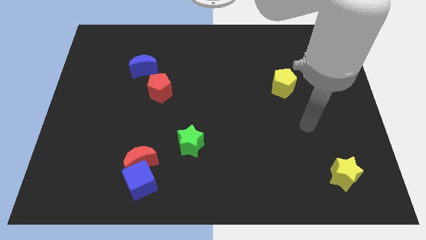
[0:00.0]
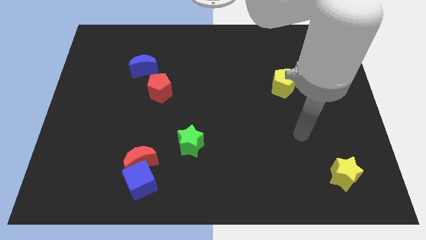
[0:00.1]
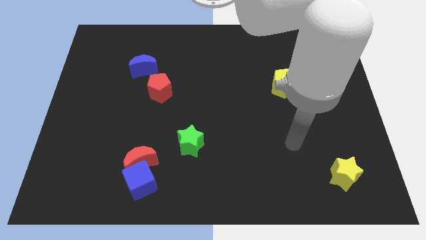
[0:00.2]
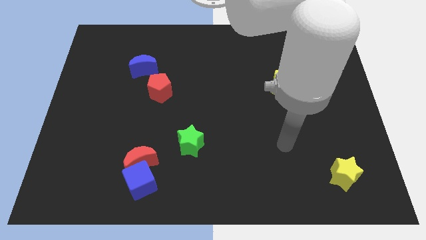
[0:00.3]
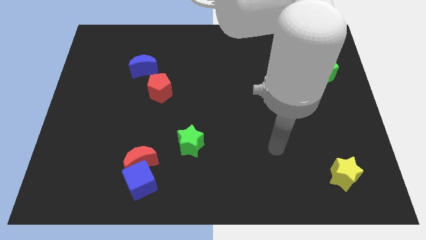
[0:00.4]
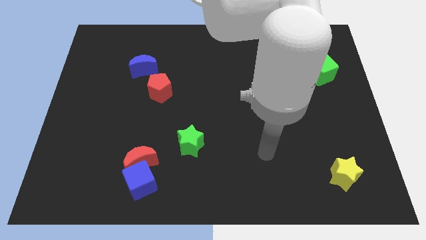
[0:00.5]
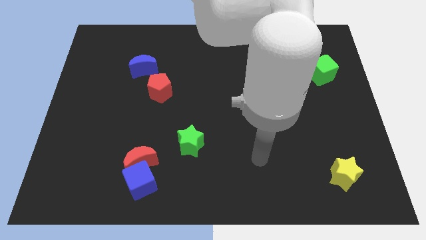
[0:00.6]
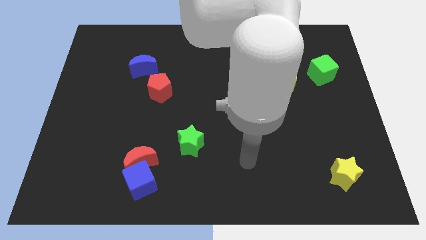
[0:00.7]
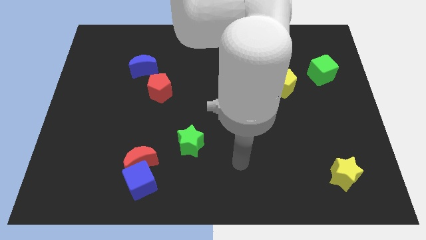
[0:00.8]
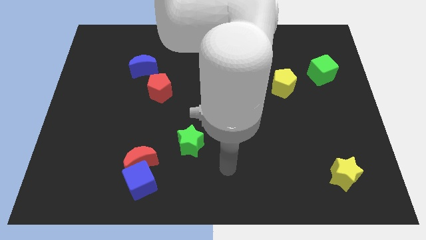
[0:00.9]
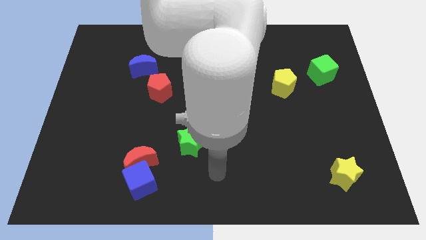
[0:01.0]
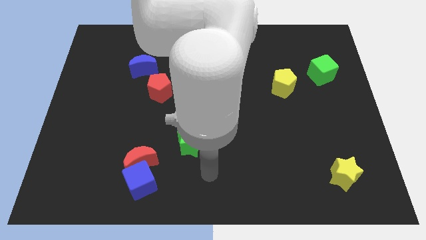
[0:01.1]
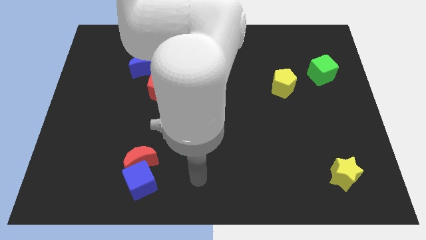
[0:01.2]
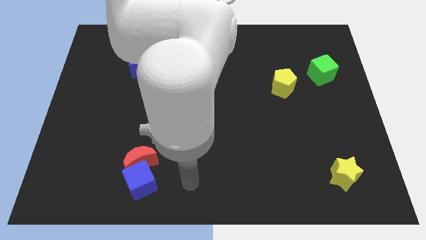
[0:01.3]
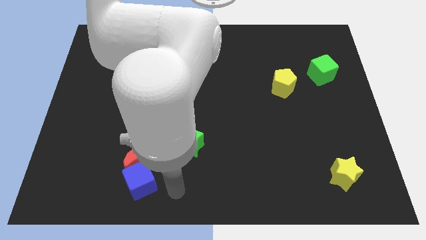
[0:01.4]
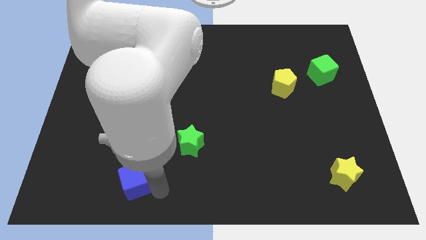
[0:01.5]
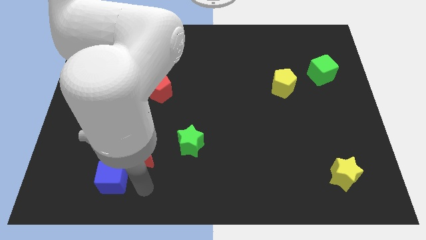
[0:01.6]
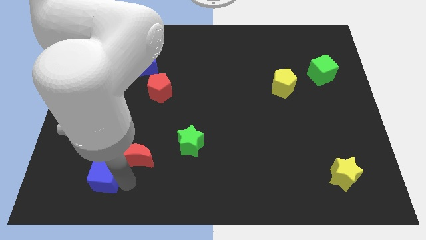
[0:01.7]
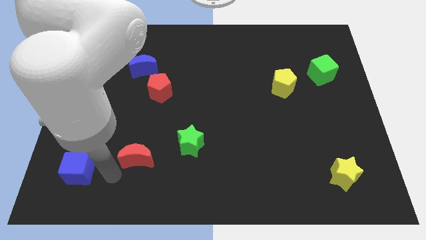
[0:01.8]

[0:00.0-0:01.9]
separate the red moon from the blue cube

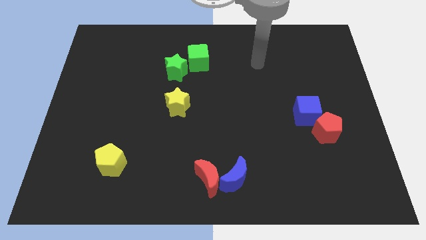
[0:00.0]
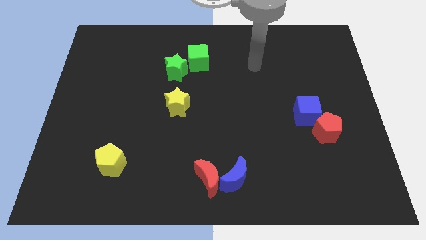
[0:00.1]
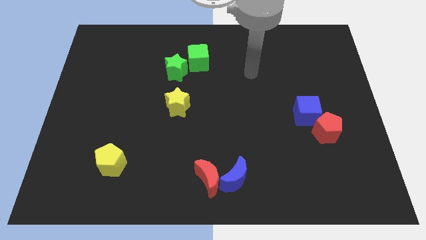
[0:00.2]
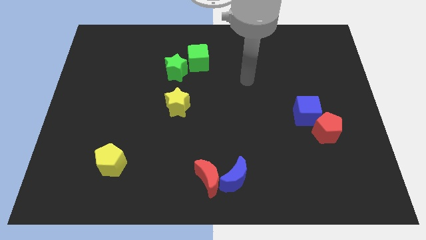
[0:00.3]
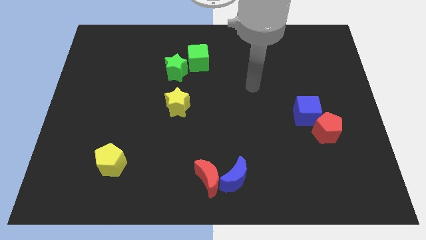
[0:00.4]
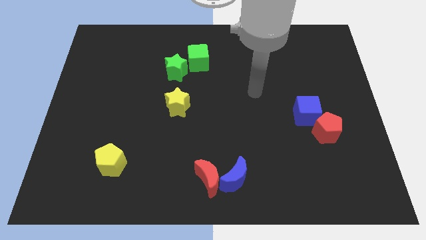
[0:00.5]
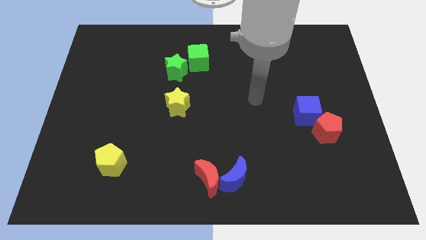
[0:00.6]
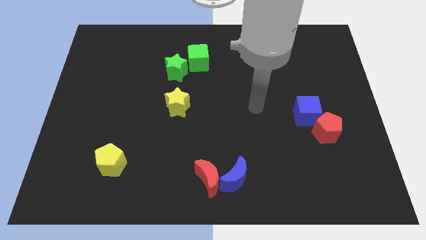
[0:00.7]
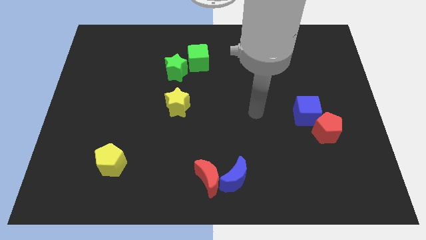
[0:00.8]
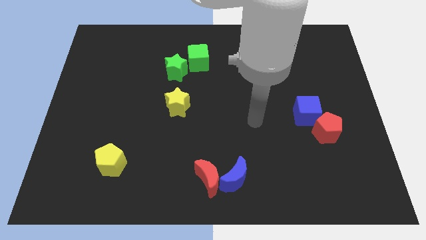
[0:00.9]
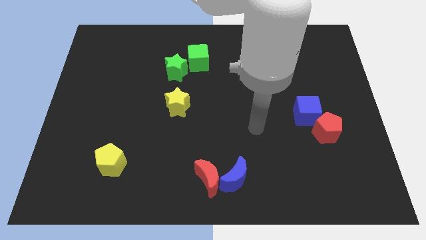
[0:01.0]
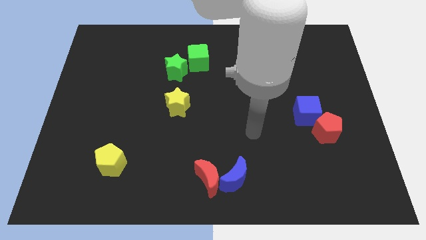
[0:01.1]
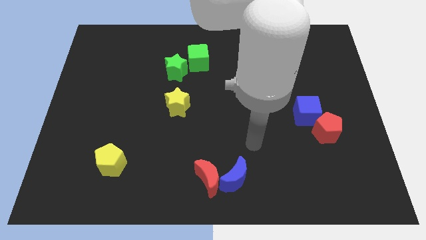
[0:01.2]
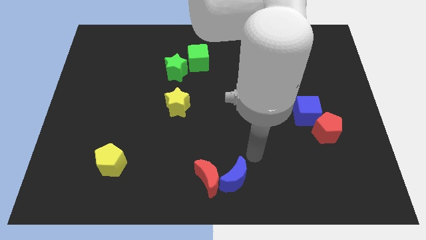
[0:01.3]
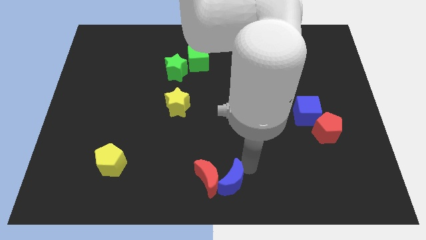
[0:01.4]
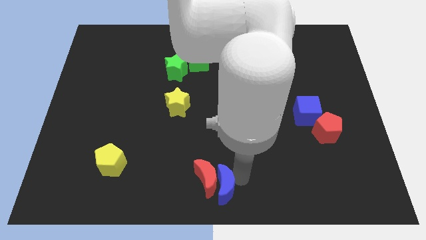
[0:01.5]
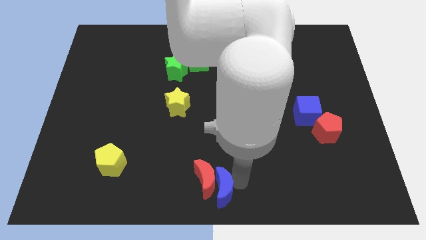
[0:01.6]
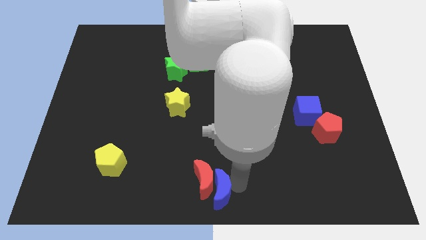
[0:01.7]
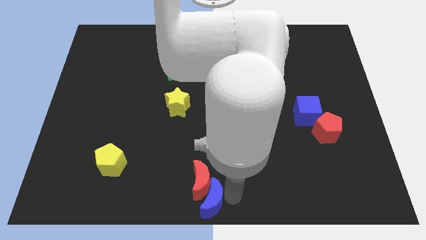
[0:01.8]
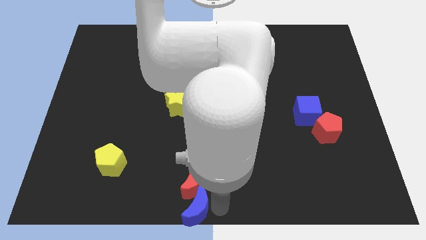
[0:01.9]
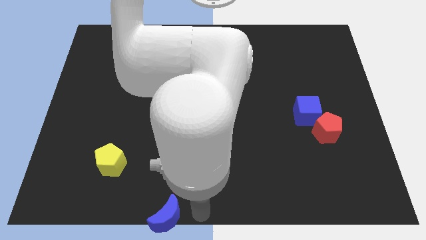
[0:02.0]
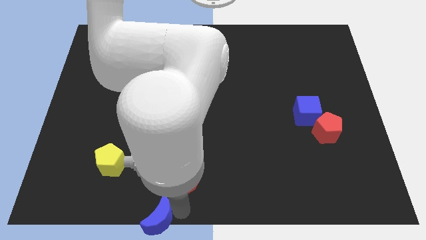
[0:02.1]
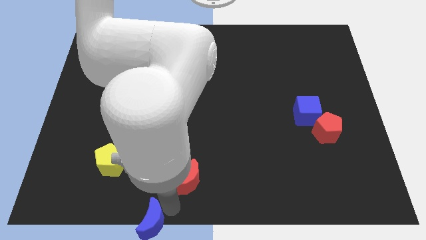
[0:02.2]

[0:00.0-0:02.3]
separate the red moon from the blue moon

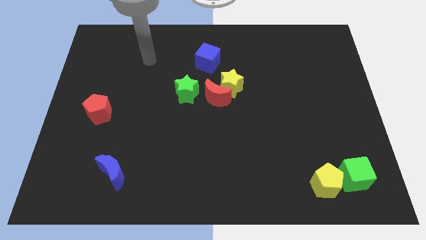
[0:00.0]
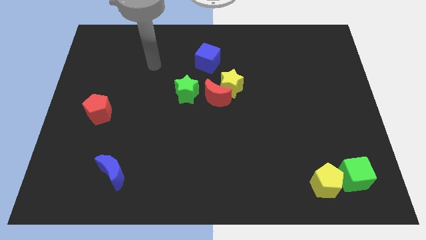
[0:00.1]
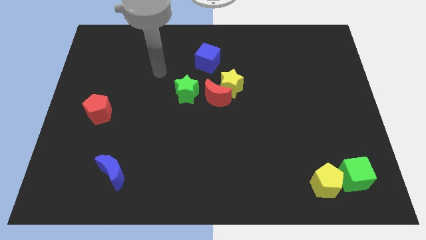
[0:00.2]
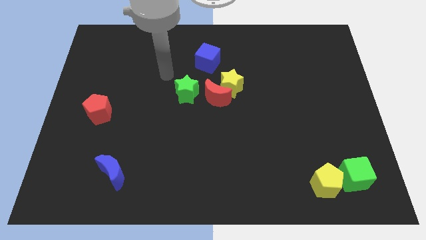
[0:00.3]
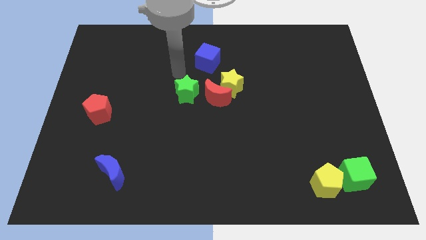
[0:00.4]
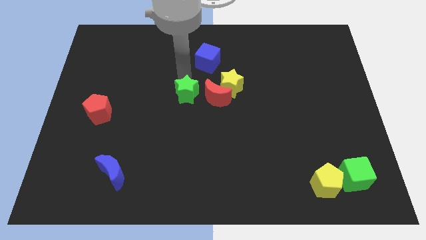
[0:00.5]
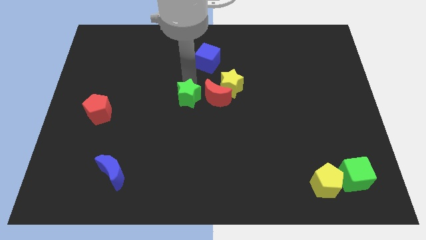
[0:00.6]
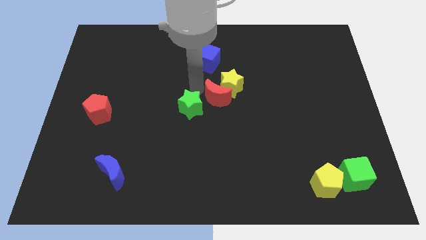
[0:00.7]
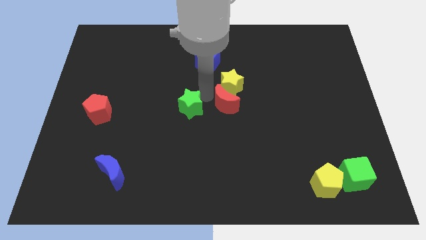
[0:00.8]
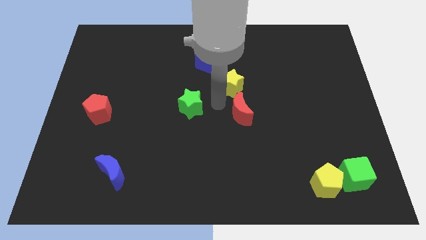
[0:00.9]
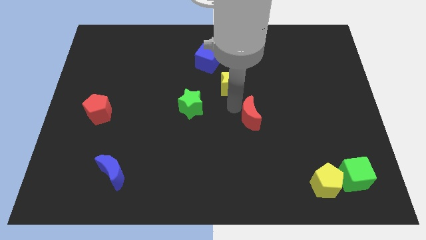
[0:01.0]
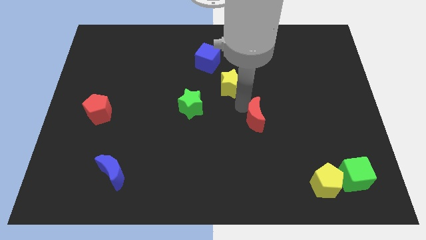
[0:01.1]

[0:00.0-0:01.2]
separate the yellow star from the red moon

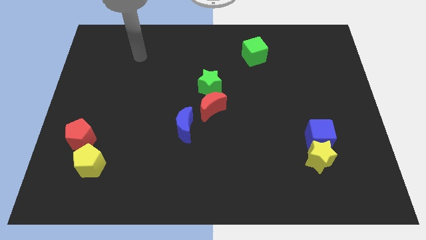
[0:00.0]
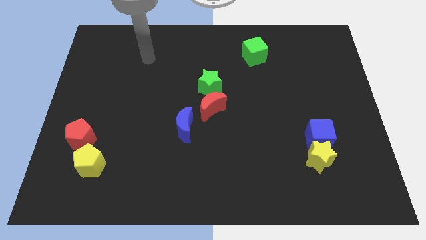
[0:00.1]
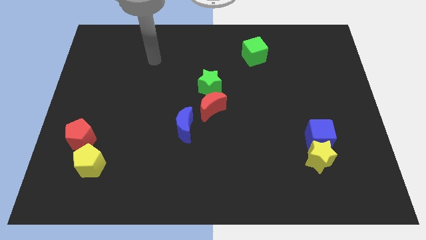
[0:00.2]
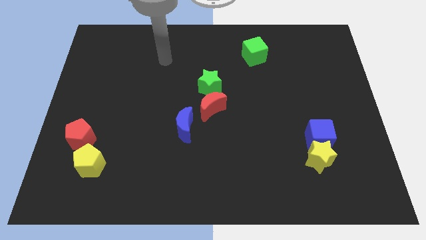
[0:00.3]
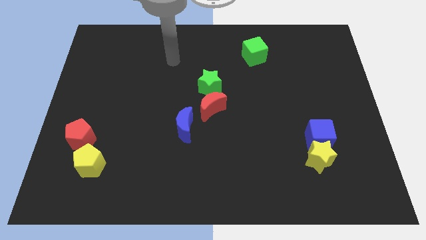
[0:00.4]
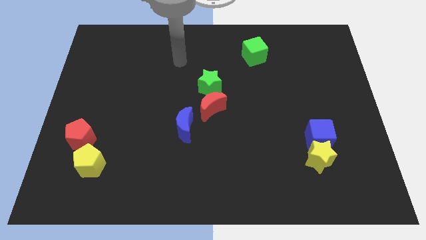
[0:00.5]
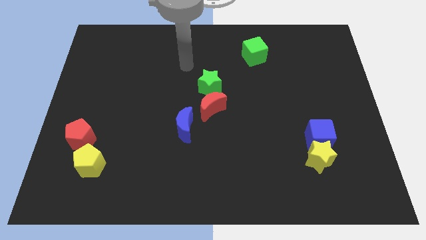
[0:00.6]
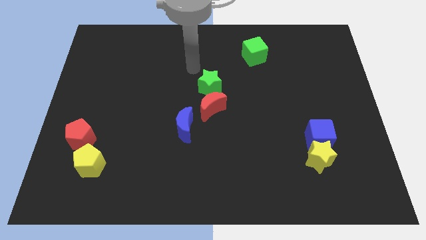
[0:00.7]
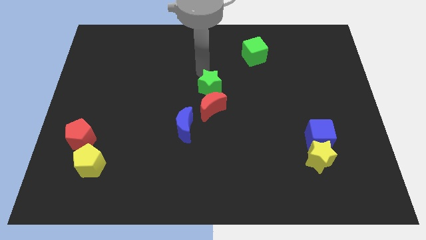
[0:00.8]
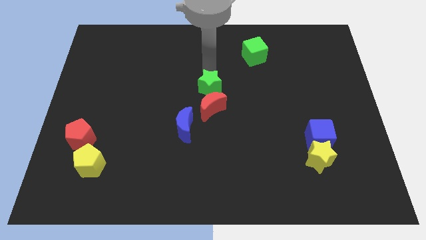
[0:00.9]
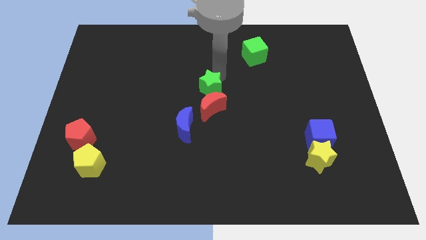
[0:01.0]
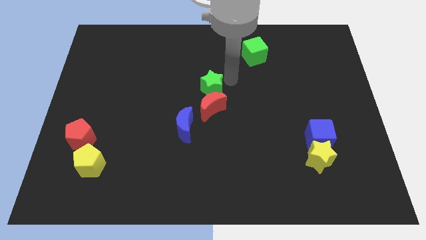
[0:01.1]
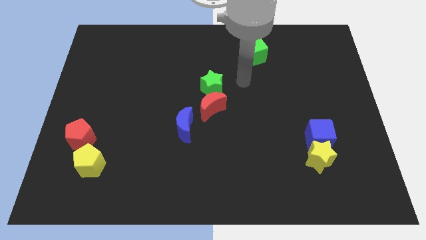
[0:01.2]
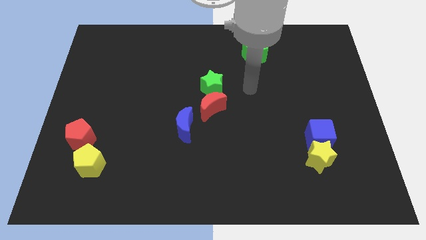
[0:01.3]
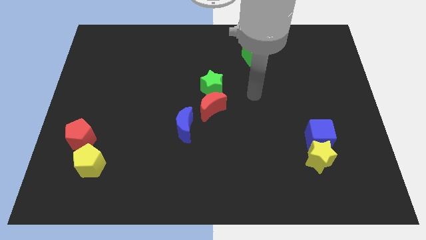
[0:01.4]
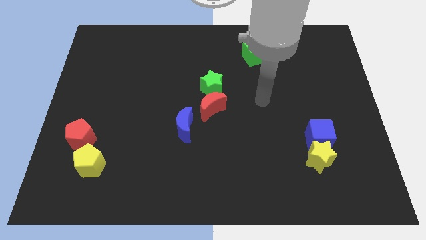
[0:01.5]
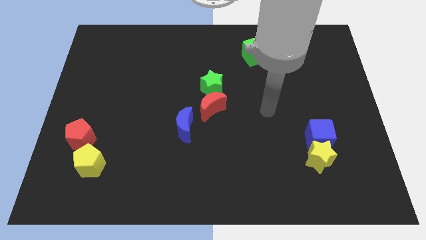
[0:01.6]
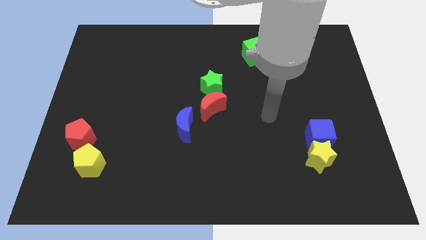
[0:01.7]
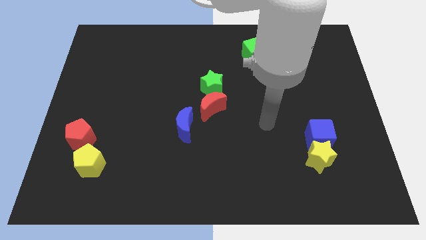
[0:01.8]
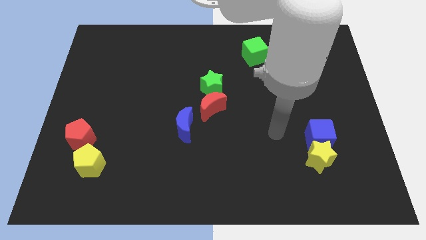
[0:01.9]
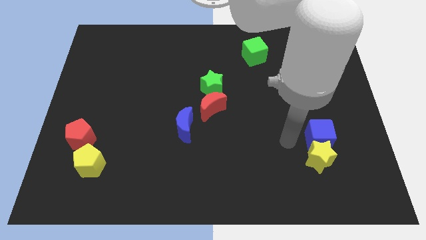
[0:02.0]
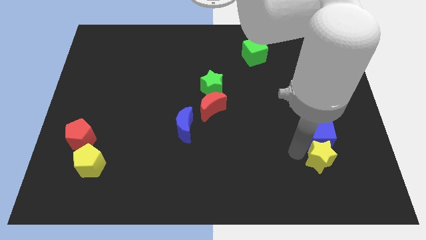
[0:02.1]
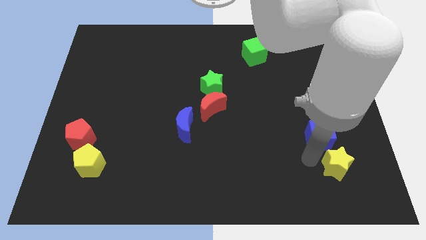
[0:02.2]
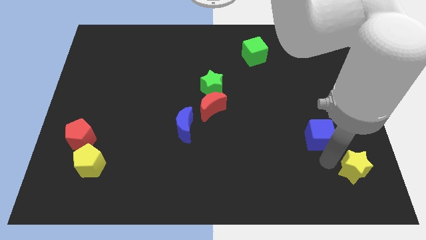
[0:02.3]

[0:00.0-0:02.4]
move the blue cube away from the yellow star

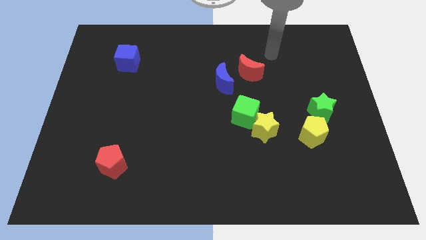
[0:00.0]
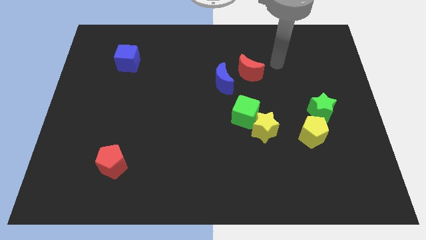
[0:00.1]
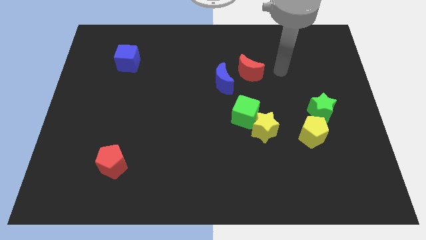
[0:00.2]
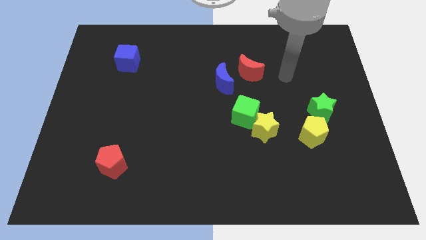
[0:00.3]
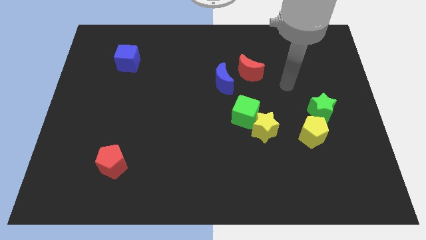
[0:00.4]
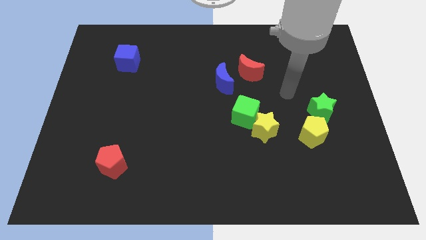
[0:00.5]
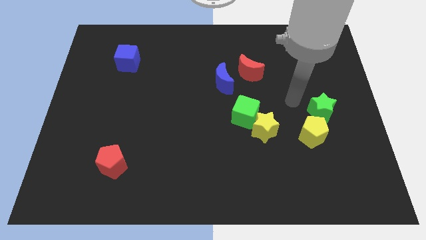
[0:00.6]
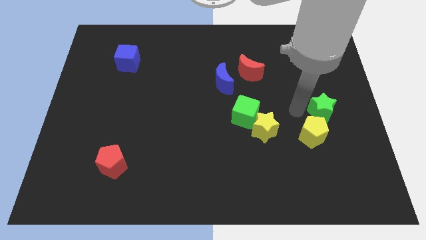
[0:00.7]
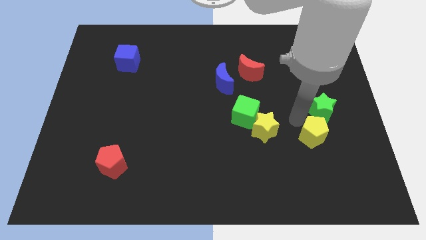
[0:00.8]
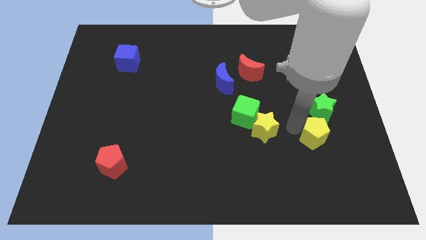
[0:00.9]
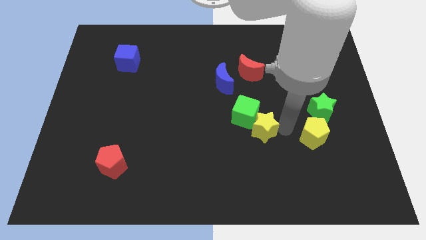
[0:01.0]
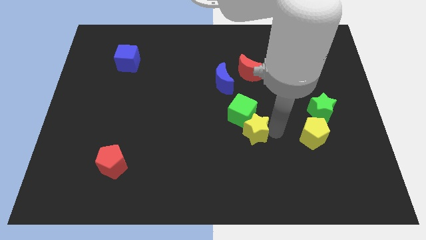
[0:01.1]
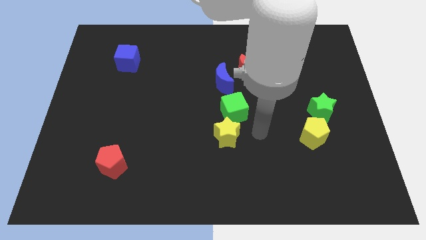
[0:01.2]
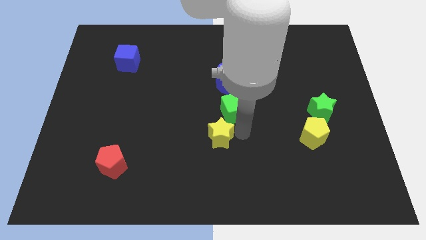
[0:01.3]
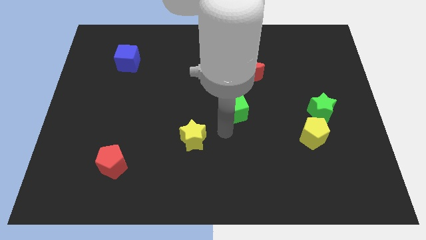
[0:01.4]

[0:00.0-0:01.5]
separate the green cube from the yellow star
